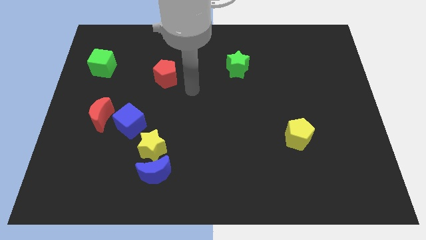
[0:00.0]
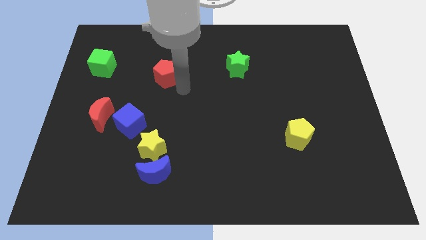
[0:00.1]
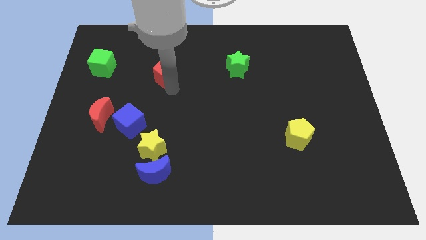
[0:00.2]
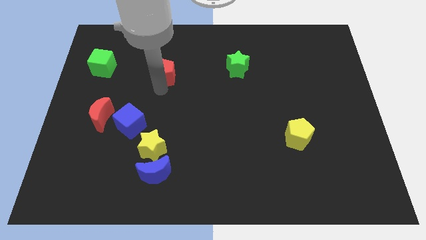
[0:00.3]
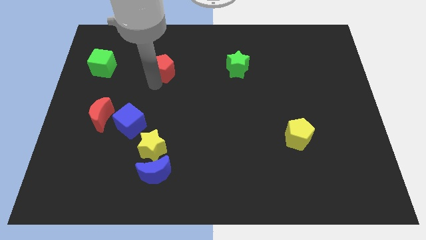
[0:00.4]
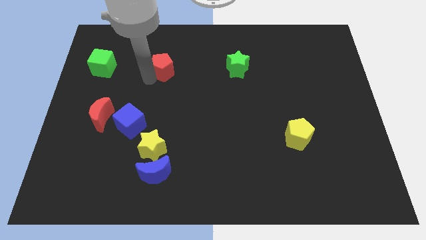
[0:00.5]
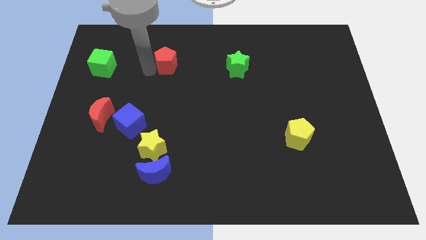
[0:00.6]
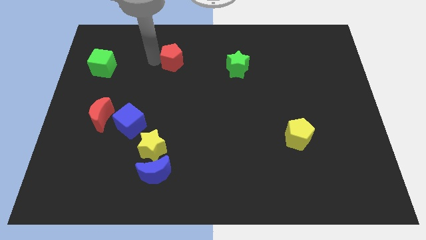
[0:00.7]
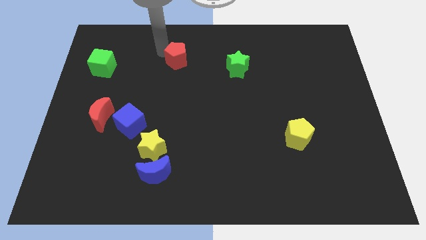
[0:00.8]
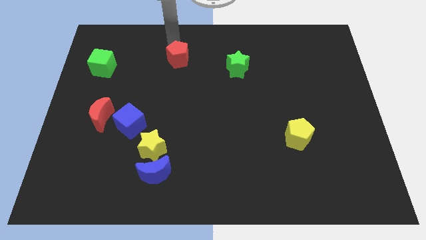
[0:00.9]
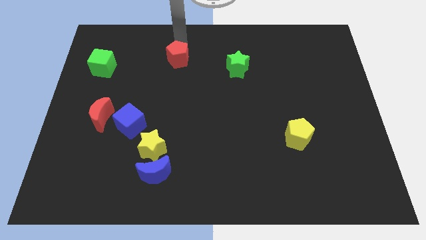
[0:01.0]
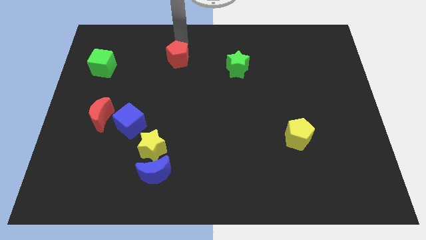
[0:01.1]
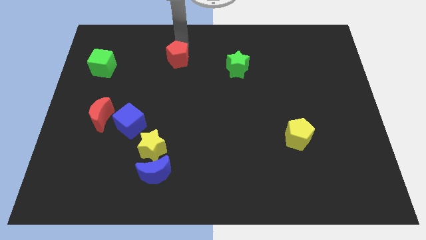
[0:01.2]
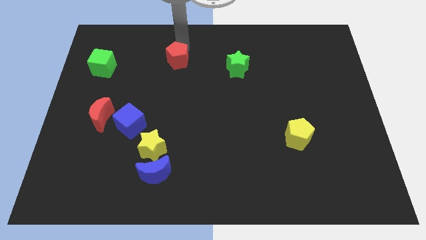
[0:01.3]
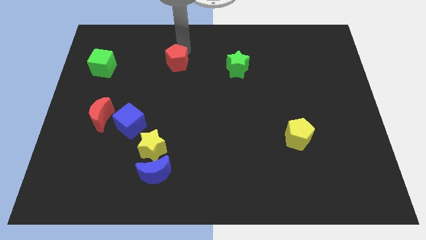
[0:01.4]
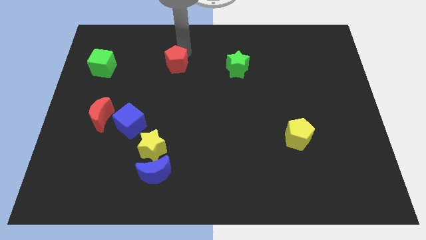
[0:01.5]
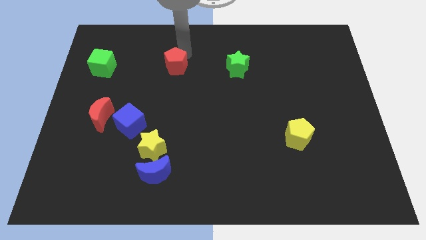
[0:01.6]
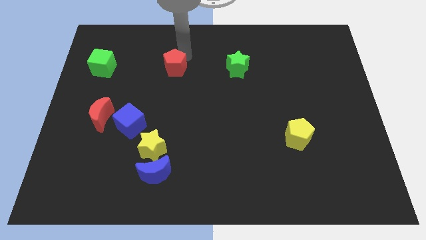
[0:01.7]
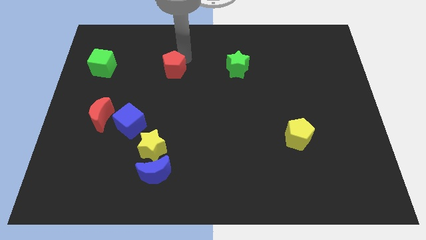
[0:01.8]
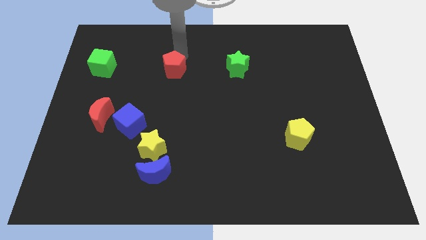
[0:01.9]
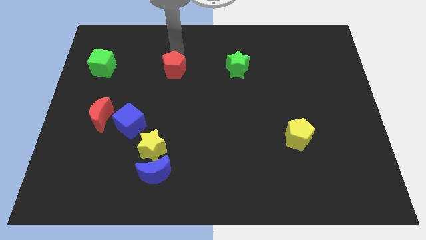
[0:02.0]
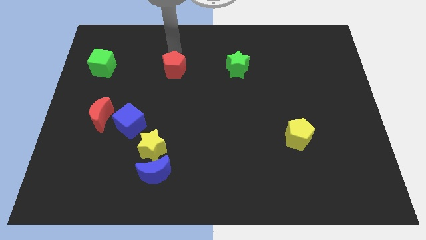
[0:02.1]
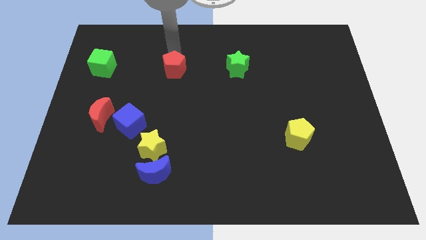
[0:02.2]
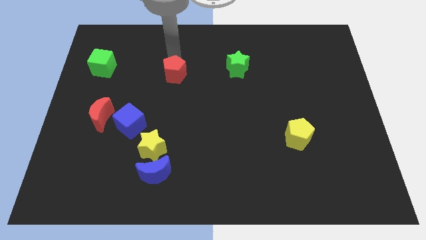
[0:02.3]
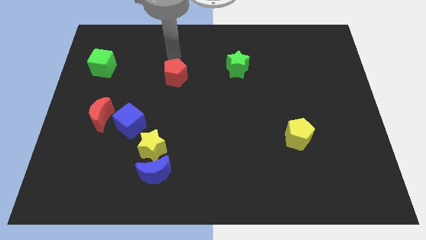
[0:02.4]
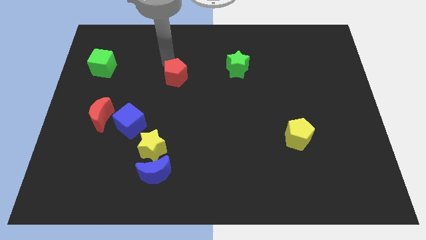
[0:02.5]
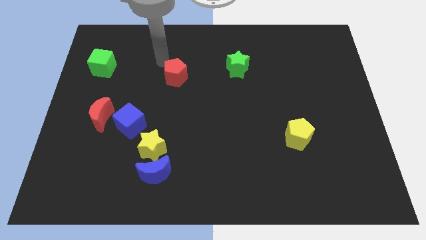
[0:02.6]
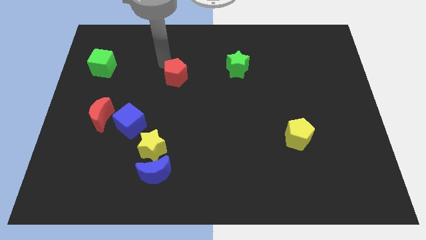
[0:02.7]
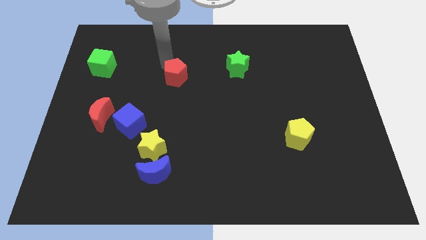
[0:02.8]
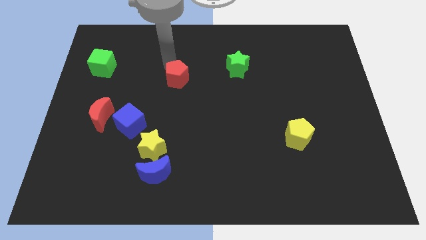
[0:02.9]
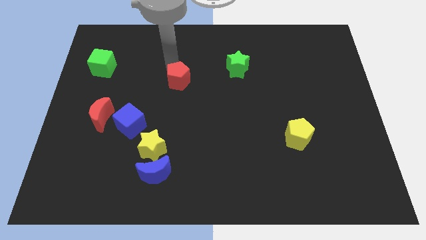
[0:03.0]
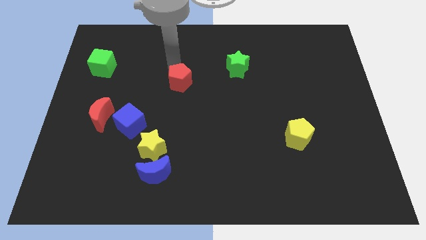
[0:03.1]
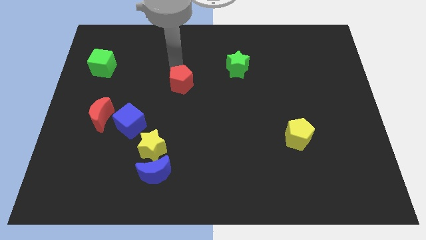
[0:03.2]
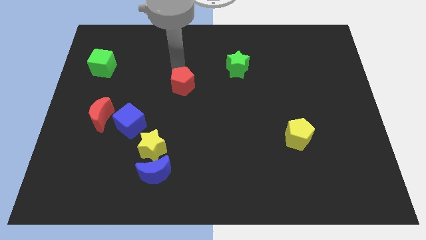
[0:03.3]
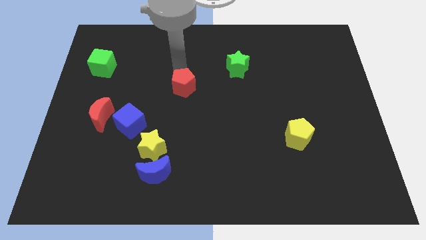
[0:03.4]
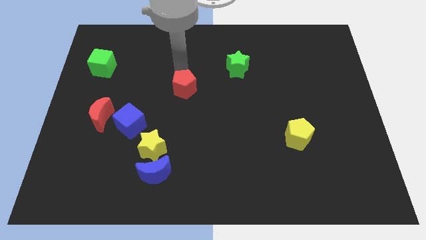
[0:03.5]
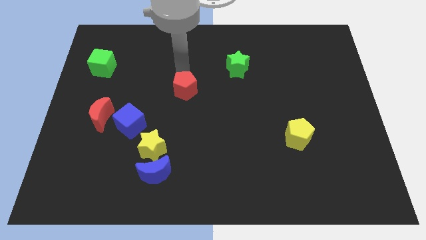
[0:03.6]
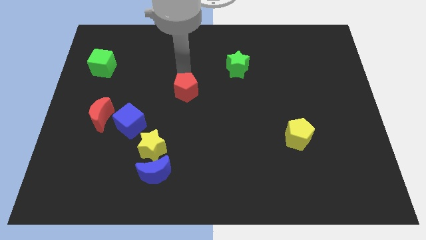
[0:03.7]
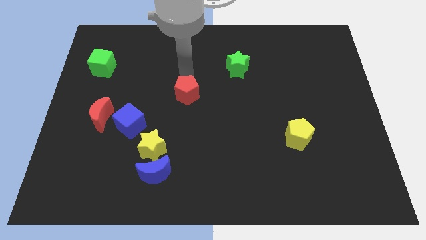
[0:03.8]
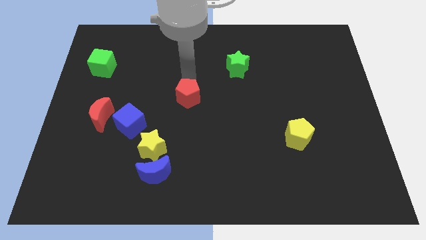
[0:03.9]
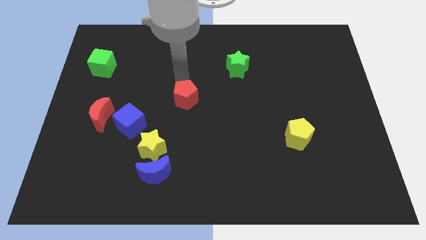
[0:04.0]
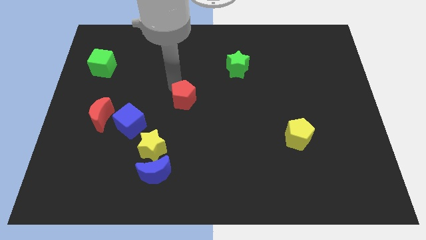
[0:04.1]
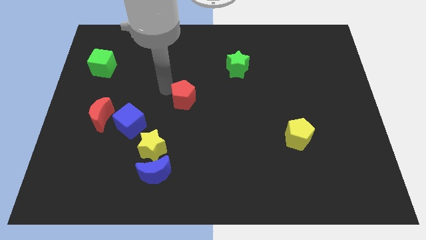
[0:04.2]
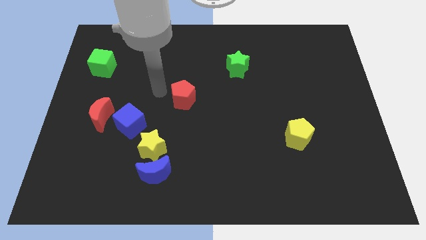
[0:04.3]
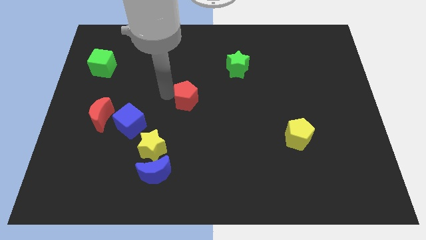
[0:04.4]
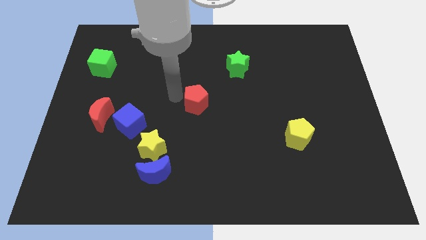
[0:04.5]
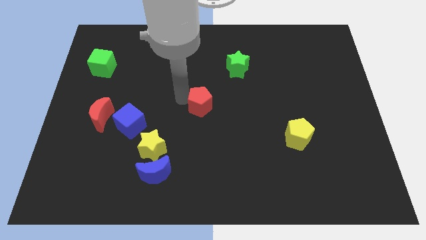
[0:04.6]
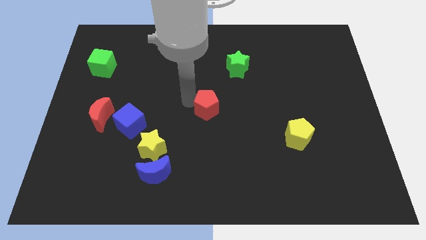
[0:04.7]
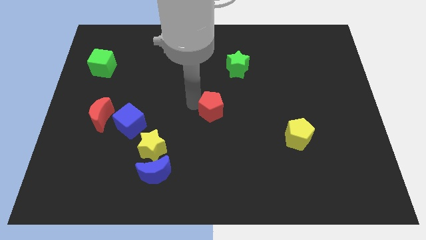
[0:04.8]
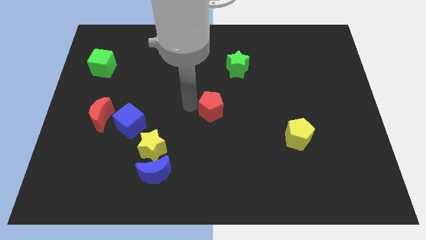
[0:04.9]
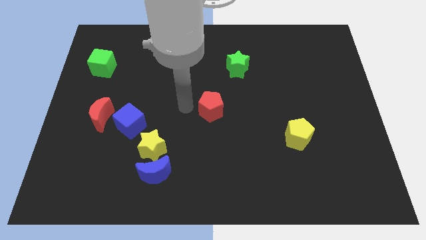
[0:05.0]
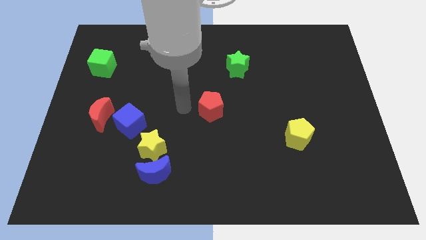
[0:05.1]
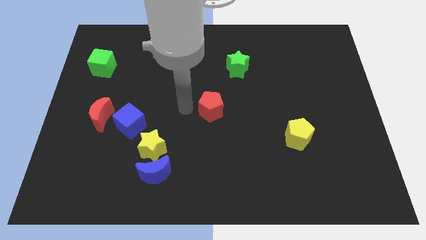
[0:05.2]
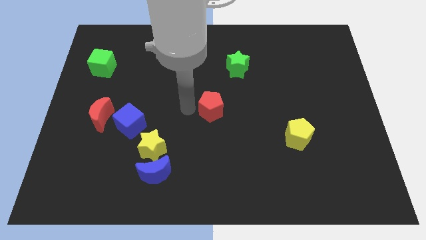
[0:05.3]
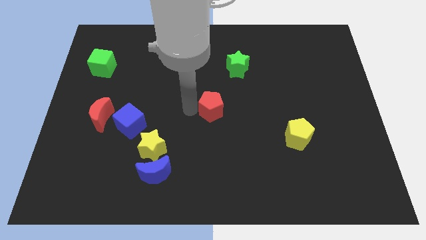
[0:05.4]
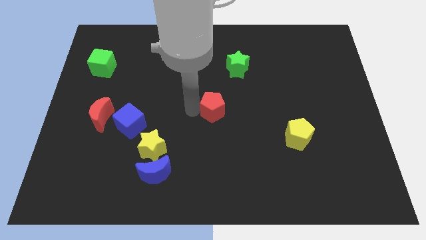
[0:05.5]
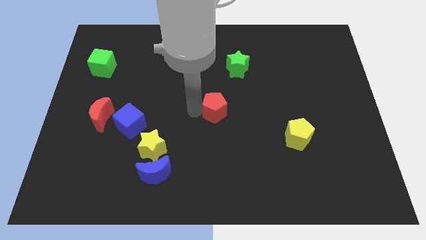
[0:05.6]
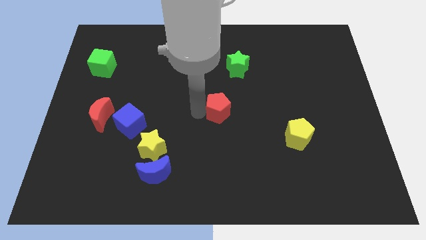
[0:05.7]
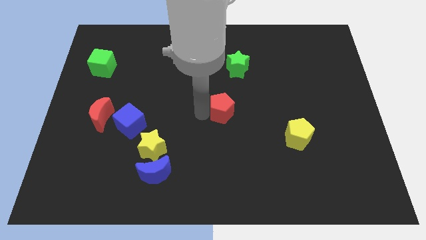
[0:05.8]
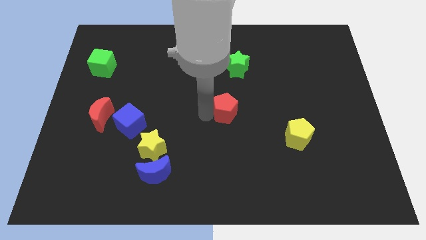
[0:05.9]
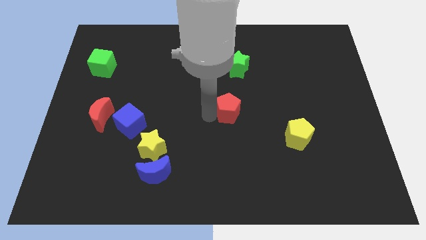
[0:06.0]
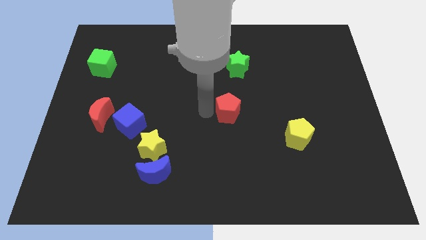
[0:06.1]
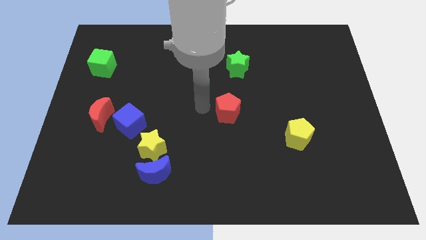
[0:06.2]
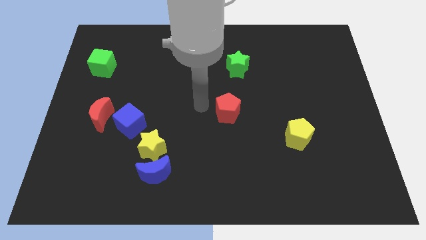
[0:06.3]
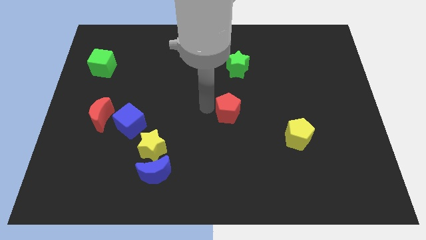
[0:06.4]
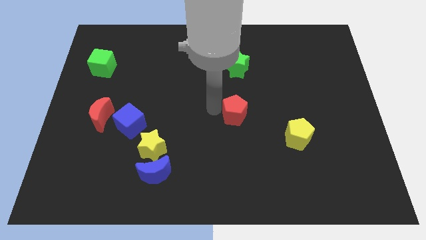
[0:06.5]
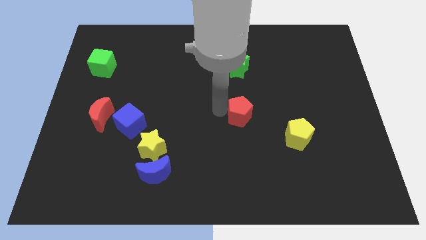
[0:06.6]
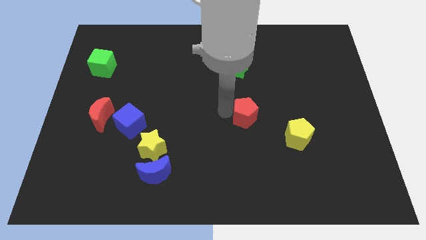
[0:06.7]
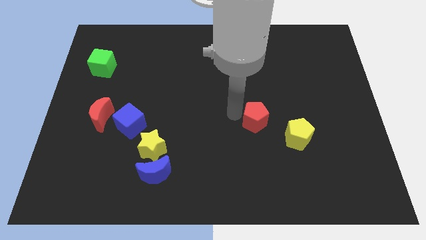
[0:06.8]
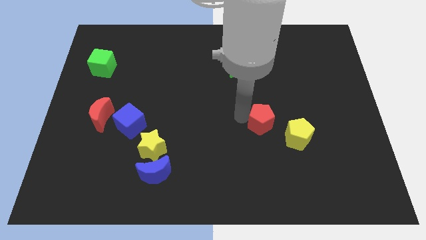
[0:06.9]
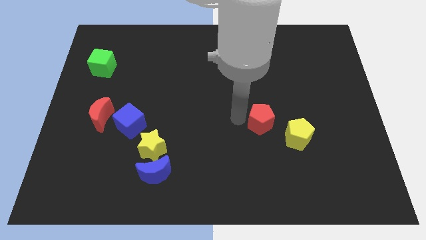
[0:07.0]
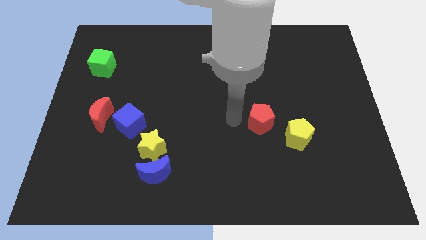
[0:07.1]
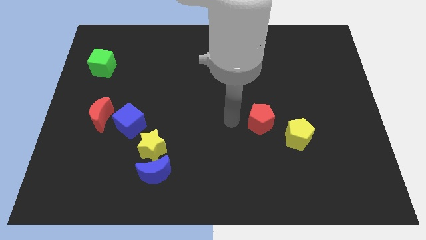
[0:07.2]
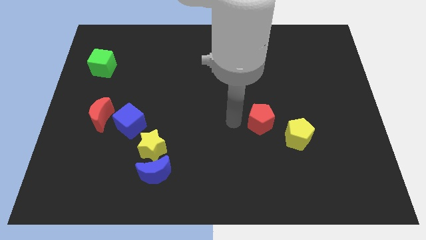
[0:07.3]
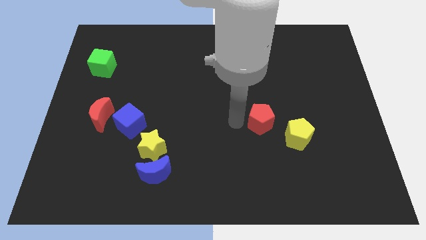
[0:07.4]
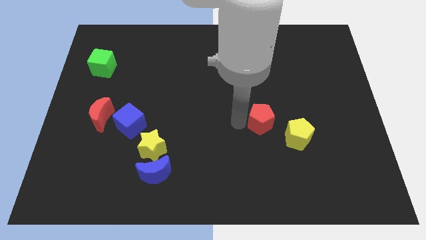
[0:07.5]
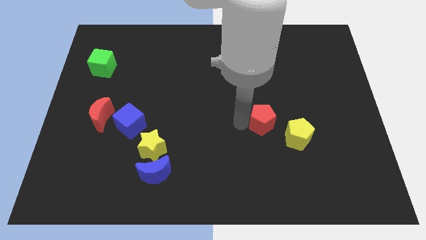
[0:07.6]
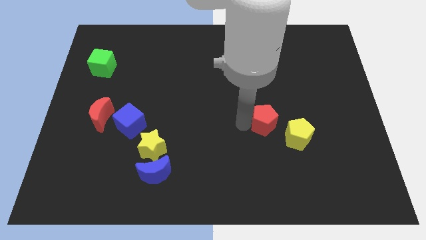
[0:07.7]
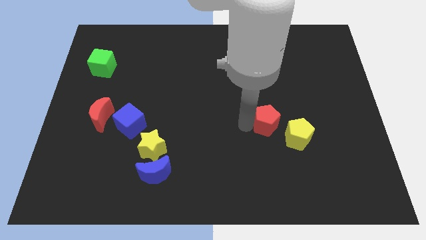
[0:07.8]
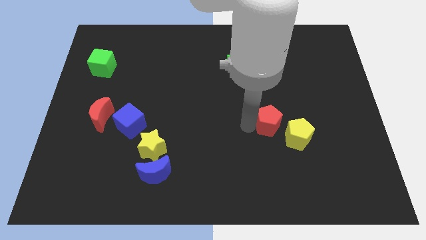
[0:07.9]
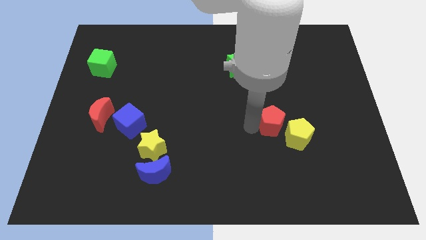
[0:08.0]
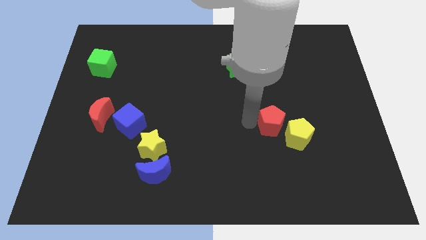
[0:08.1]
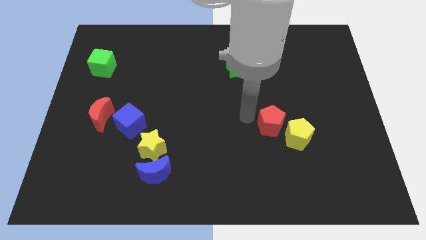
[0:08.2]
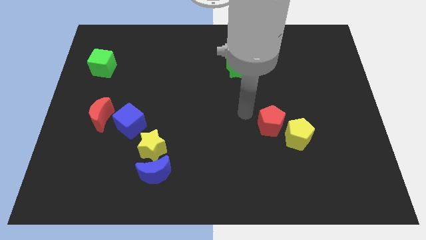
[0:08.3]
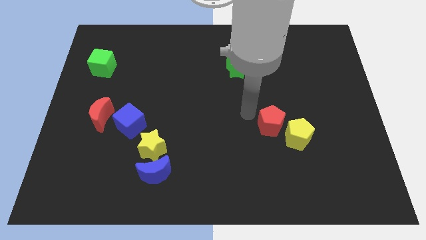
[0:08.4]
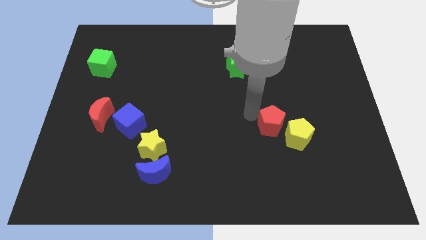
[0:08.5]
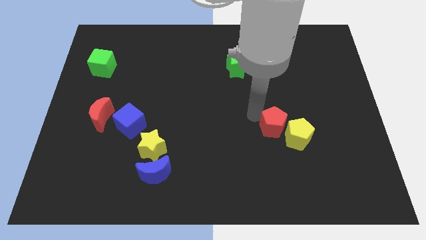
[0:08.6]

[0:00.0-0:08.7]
slide the red pentagon close to the yellow pentagon
